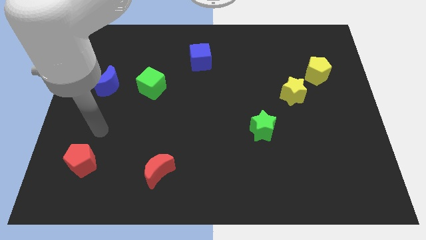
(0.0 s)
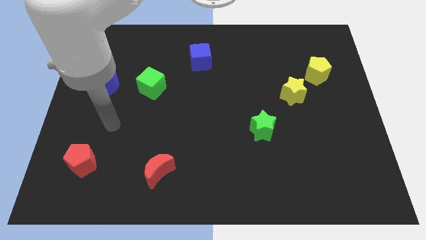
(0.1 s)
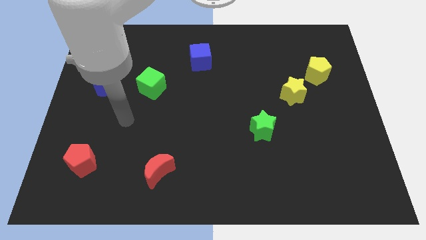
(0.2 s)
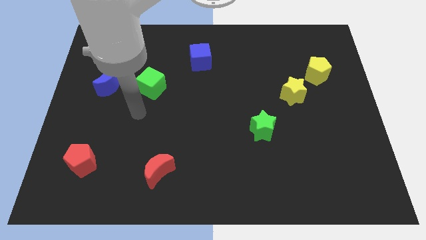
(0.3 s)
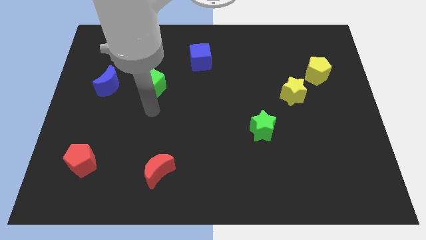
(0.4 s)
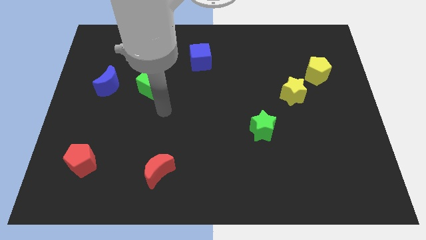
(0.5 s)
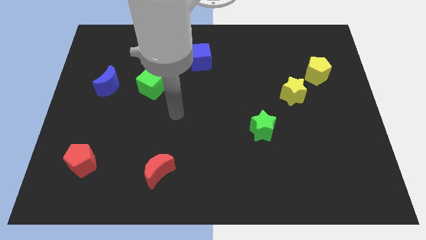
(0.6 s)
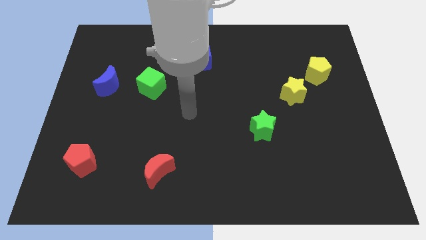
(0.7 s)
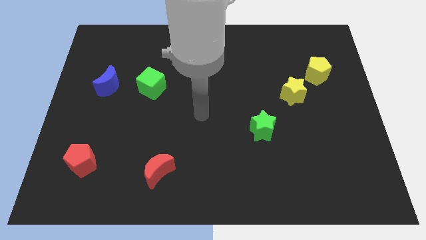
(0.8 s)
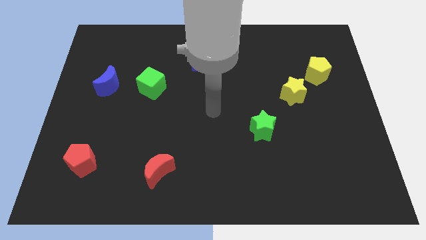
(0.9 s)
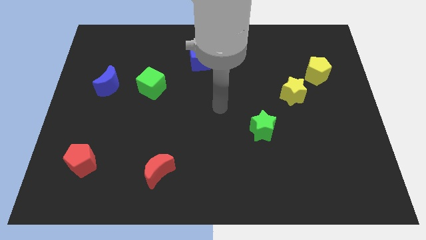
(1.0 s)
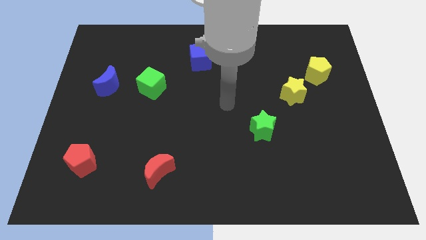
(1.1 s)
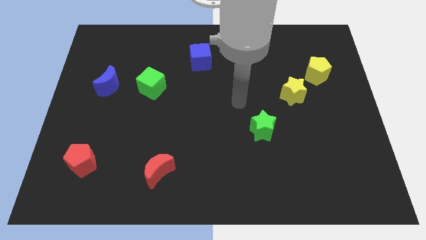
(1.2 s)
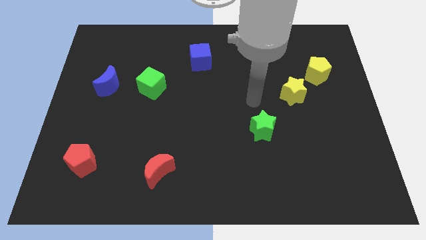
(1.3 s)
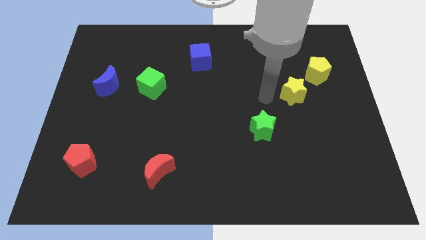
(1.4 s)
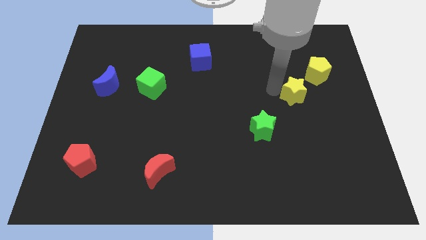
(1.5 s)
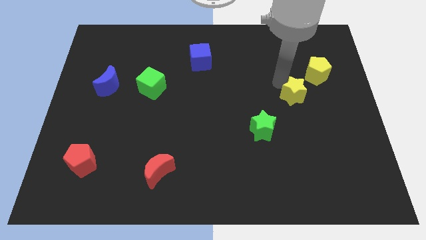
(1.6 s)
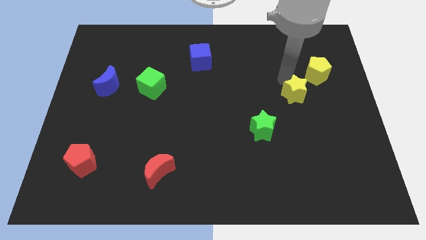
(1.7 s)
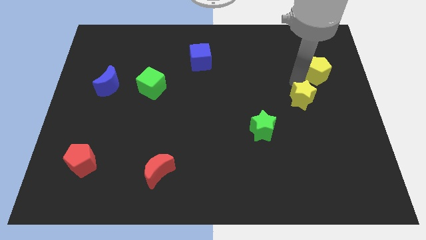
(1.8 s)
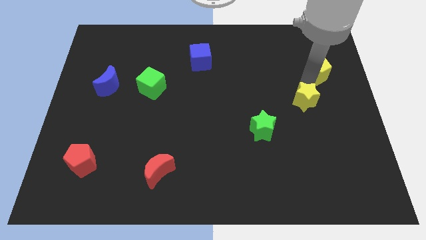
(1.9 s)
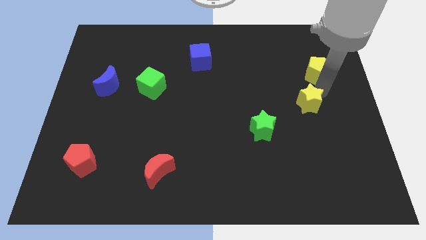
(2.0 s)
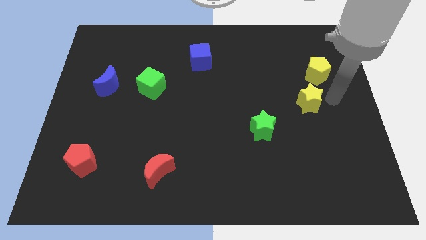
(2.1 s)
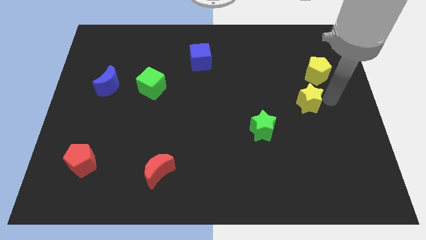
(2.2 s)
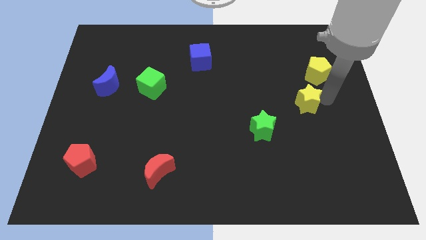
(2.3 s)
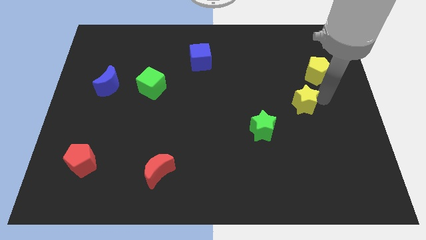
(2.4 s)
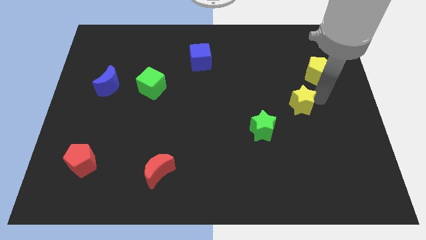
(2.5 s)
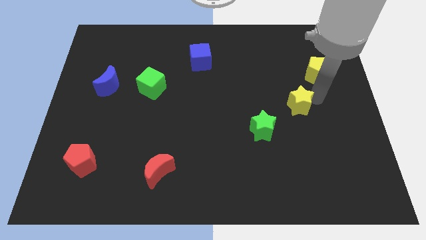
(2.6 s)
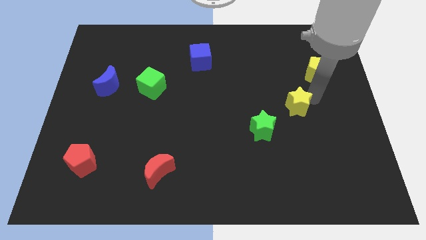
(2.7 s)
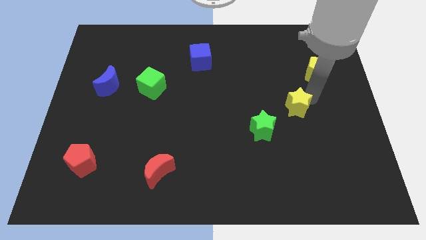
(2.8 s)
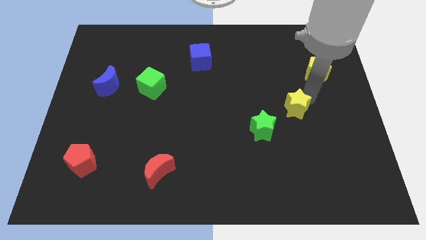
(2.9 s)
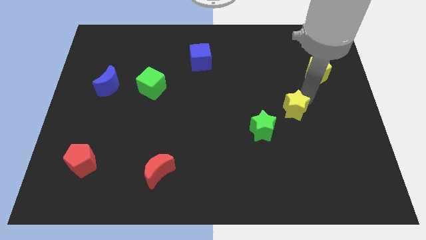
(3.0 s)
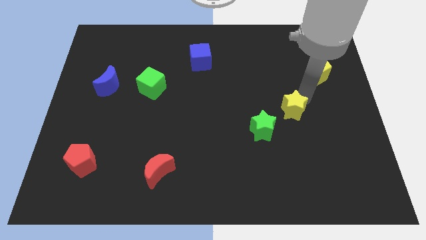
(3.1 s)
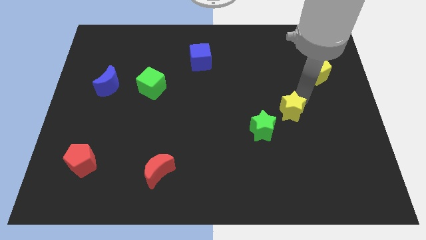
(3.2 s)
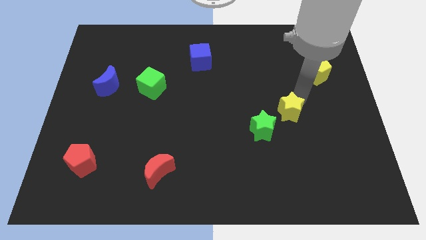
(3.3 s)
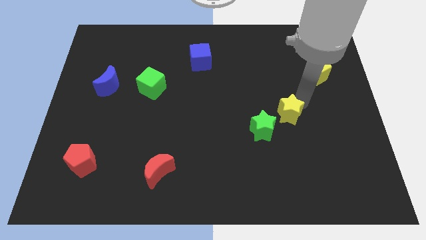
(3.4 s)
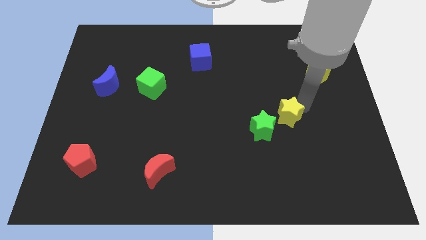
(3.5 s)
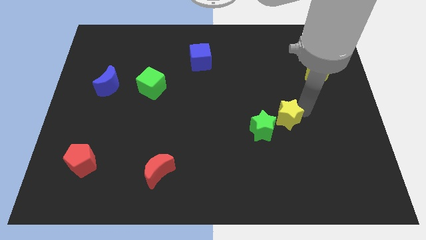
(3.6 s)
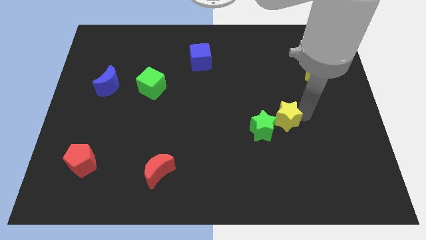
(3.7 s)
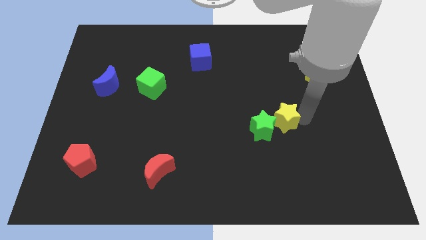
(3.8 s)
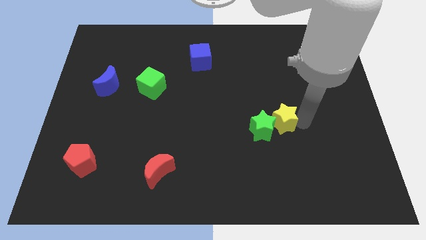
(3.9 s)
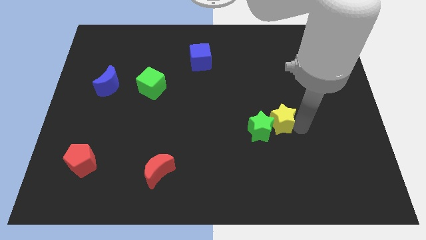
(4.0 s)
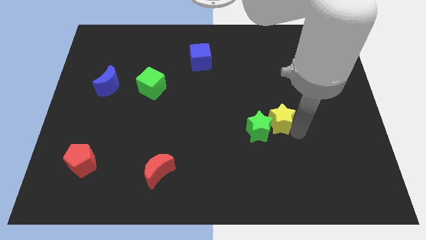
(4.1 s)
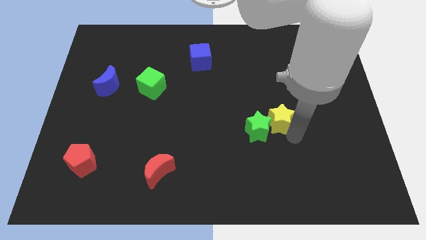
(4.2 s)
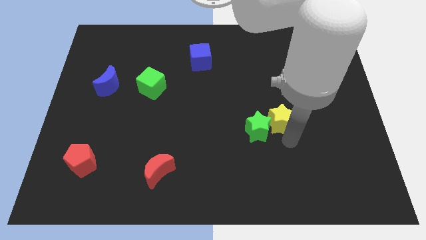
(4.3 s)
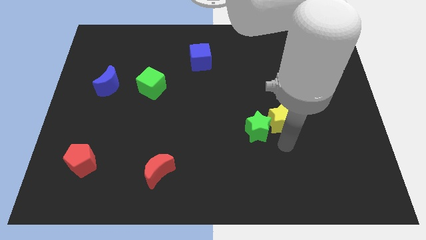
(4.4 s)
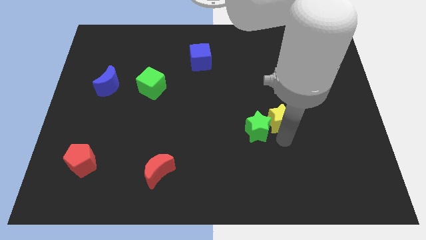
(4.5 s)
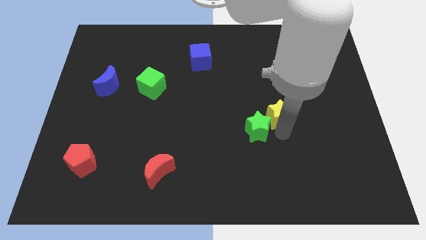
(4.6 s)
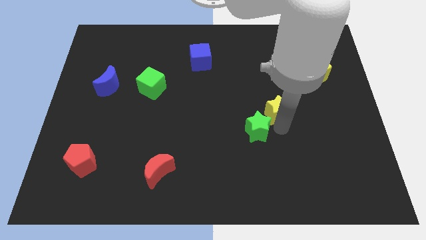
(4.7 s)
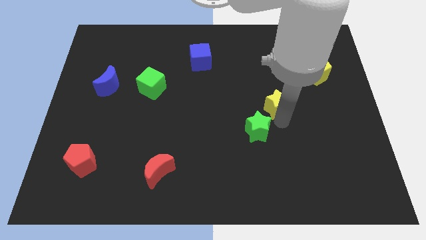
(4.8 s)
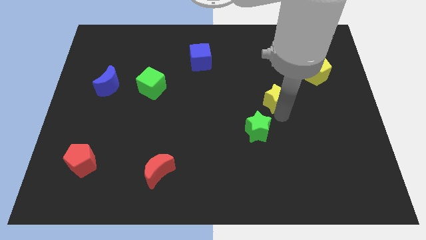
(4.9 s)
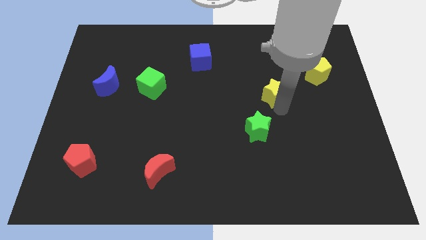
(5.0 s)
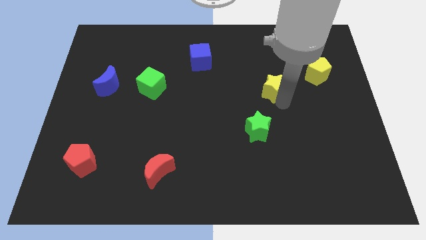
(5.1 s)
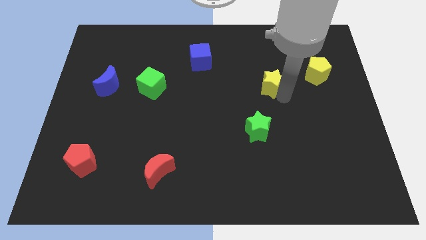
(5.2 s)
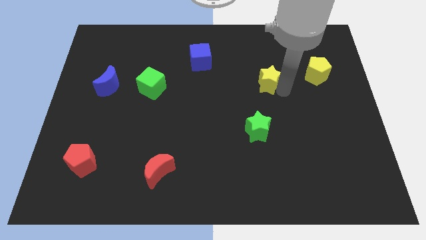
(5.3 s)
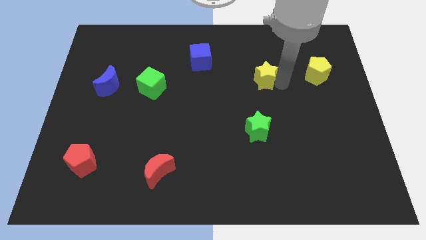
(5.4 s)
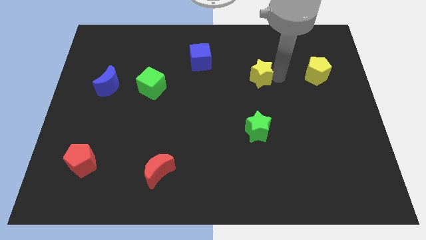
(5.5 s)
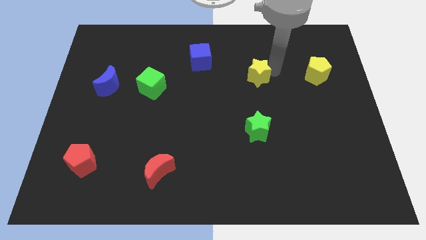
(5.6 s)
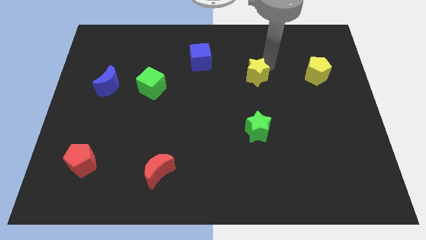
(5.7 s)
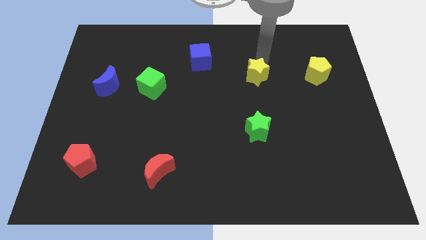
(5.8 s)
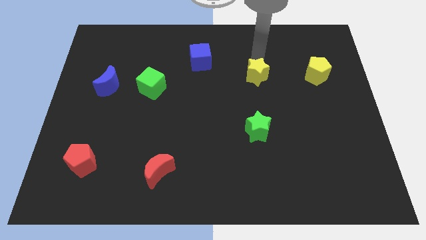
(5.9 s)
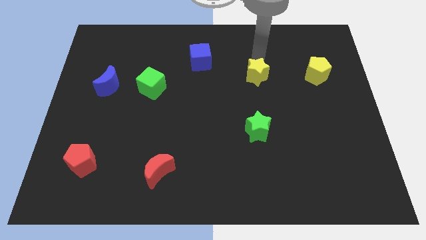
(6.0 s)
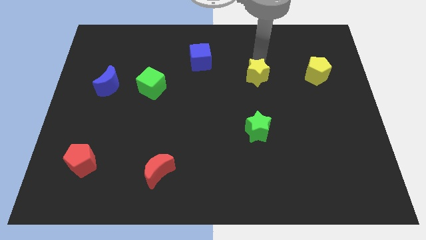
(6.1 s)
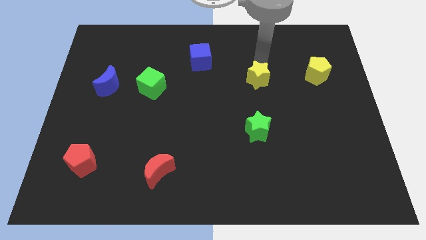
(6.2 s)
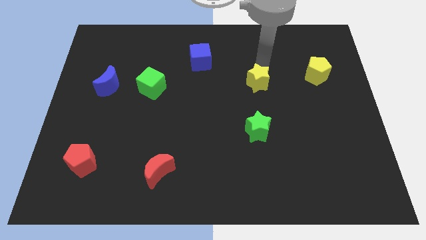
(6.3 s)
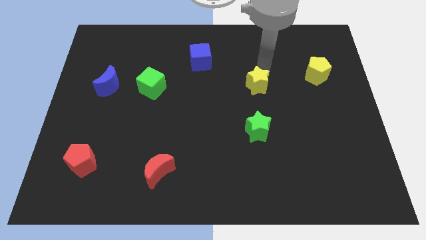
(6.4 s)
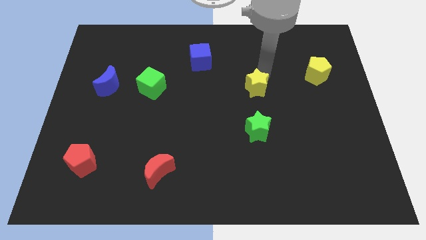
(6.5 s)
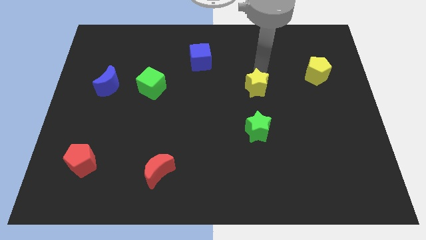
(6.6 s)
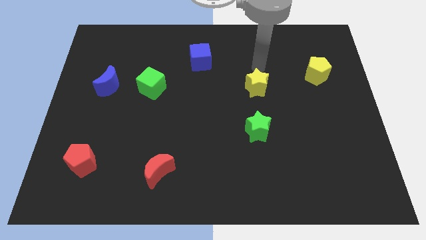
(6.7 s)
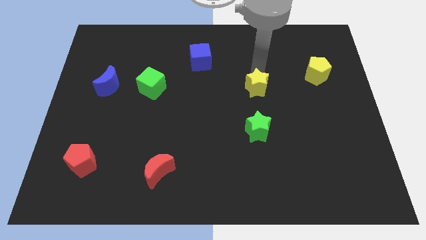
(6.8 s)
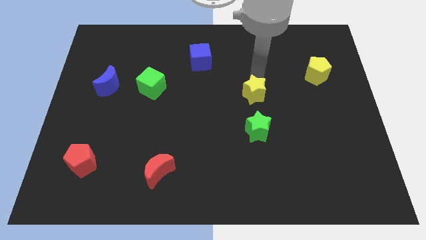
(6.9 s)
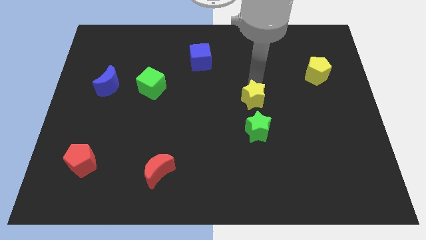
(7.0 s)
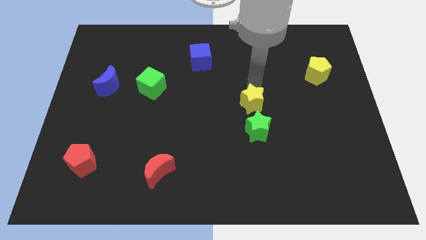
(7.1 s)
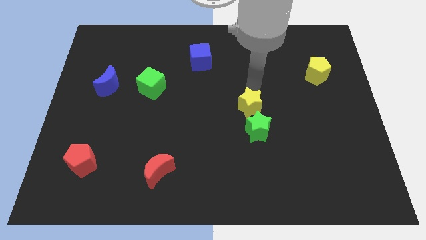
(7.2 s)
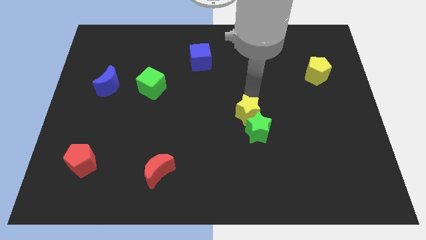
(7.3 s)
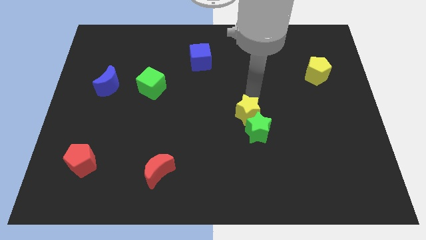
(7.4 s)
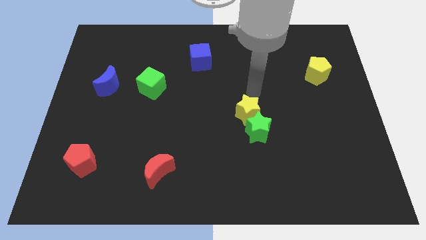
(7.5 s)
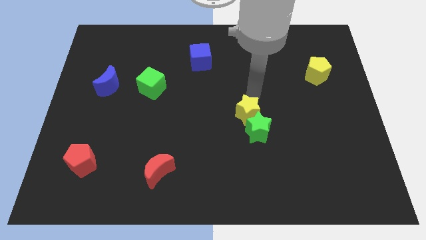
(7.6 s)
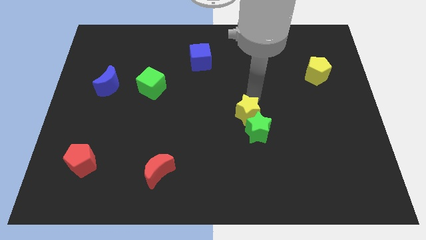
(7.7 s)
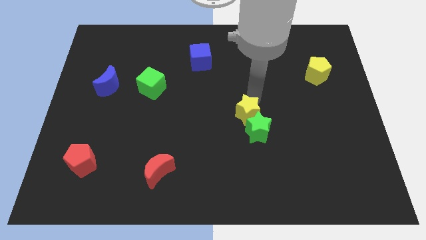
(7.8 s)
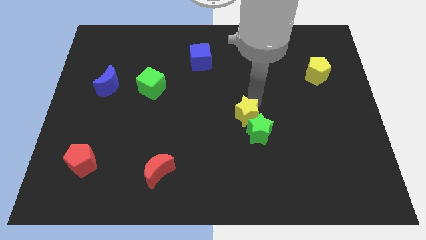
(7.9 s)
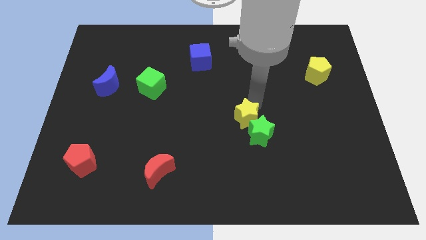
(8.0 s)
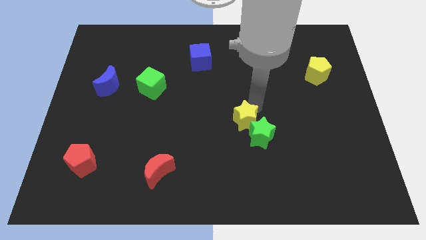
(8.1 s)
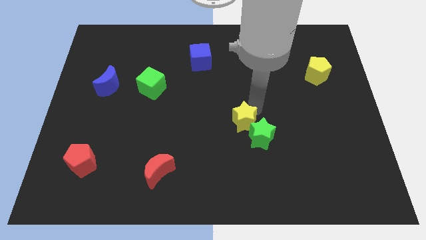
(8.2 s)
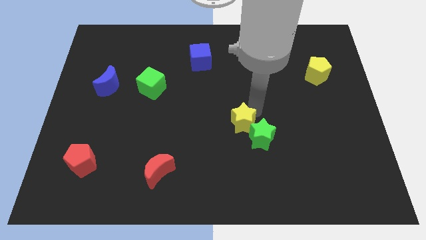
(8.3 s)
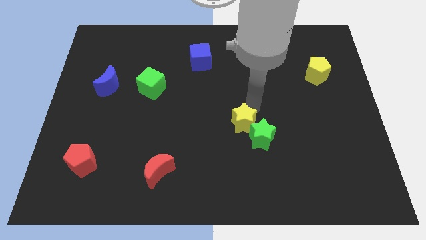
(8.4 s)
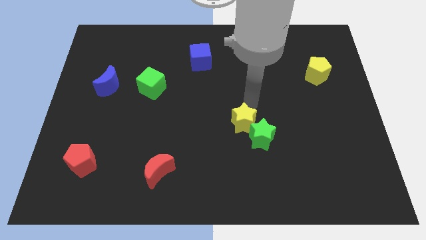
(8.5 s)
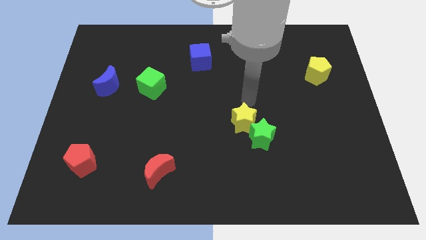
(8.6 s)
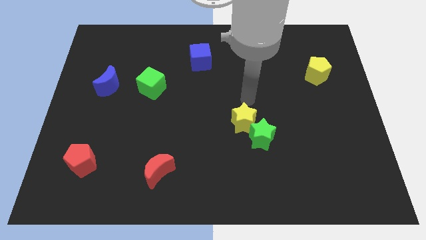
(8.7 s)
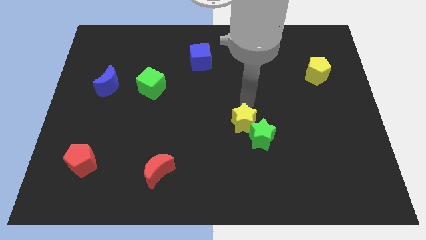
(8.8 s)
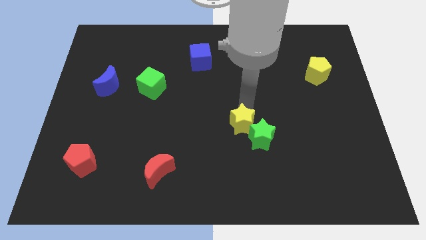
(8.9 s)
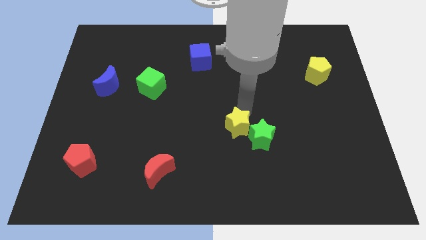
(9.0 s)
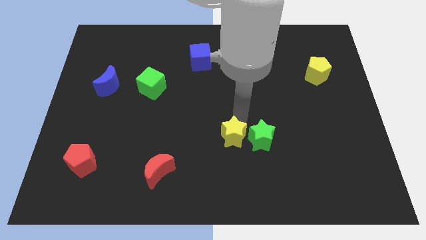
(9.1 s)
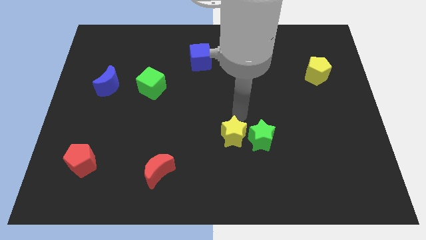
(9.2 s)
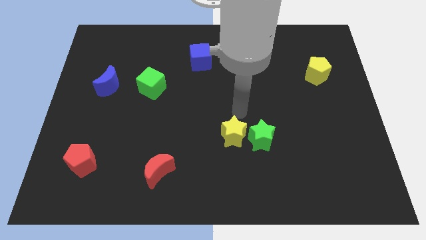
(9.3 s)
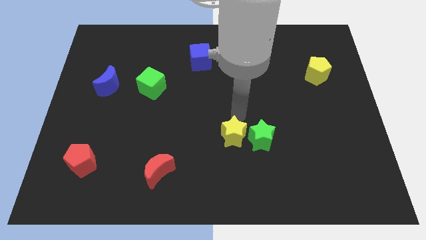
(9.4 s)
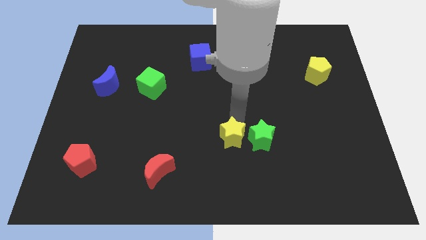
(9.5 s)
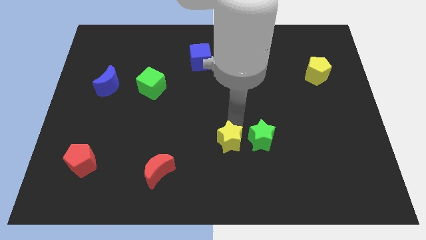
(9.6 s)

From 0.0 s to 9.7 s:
move the yellow star diagonally down and left
